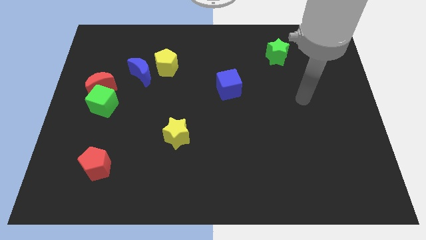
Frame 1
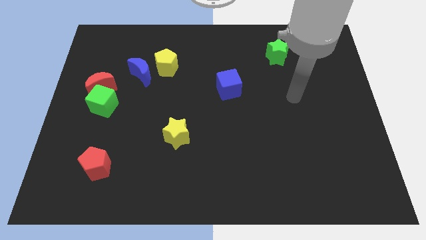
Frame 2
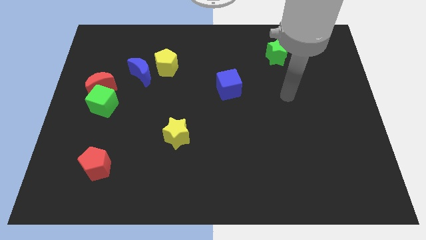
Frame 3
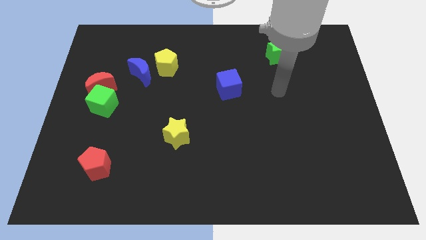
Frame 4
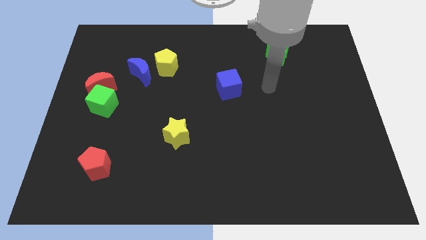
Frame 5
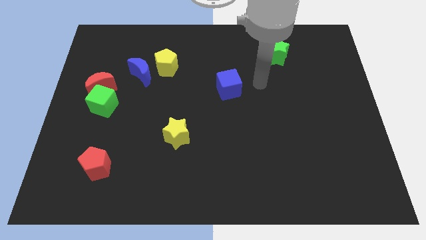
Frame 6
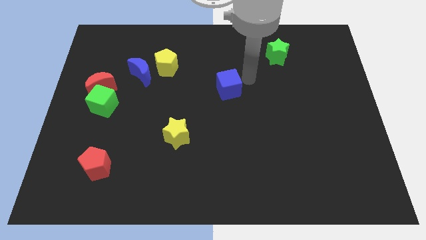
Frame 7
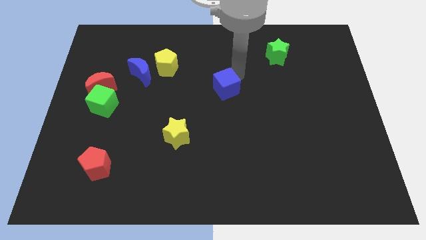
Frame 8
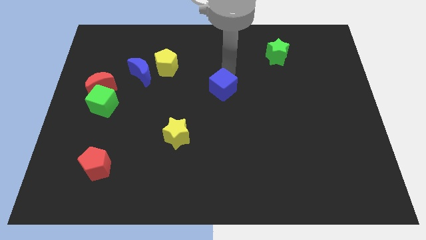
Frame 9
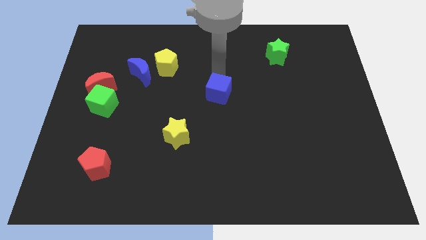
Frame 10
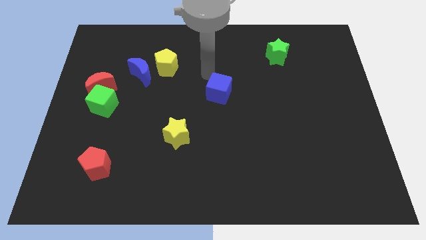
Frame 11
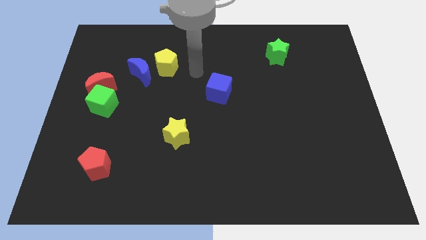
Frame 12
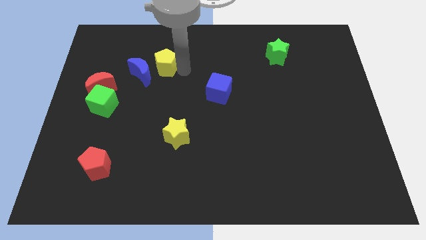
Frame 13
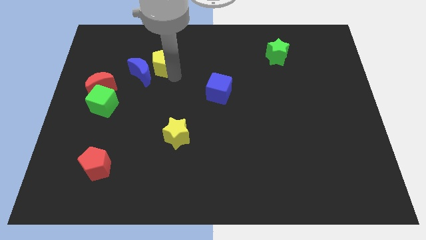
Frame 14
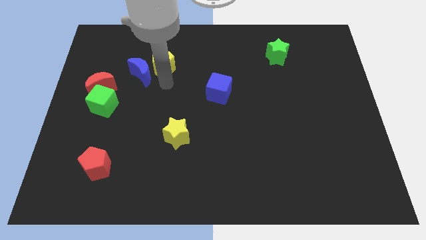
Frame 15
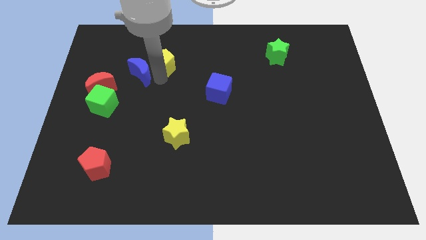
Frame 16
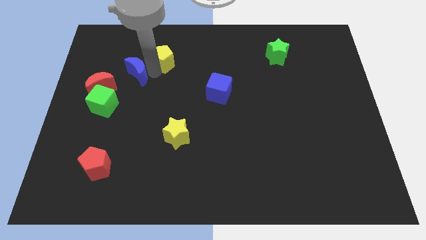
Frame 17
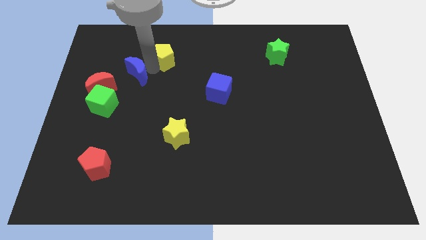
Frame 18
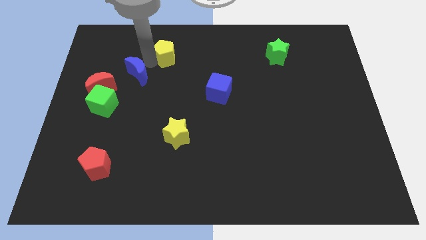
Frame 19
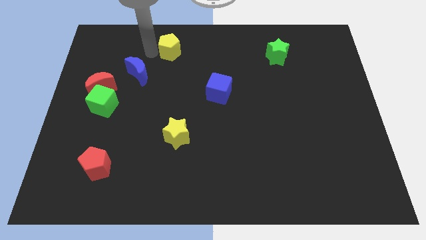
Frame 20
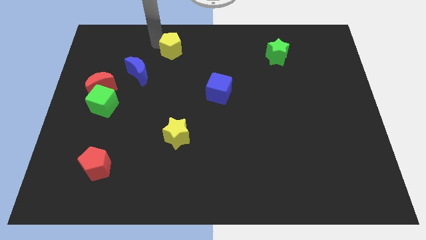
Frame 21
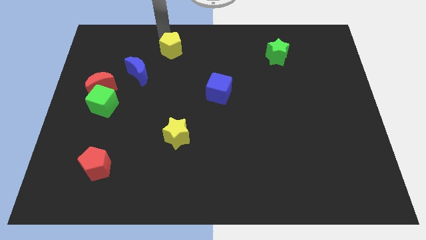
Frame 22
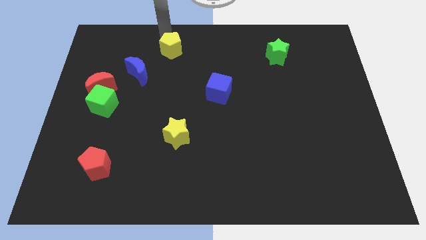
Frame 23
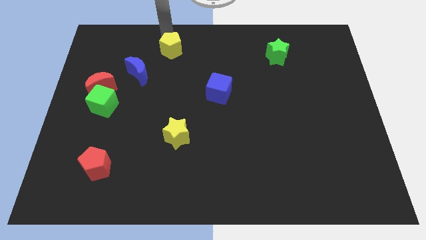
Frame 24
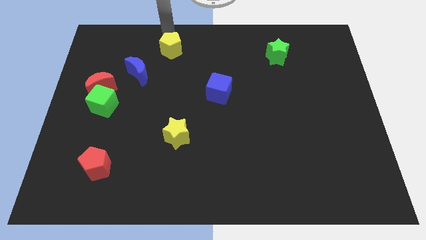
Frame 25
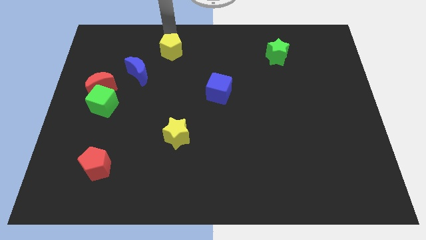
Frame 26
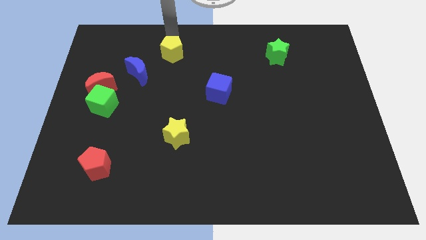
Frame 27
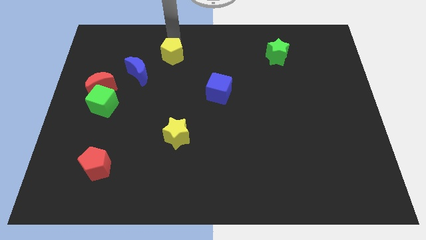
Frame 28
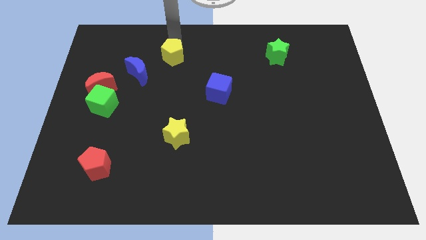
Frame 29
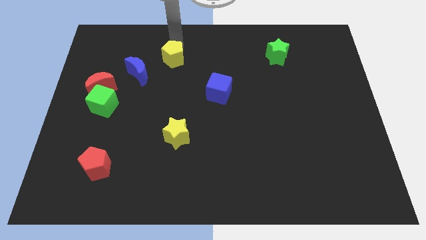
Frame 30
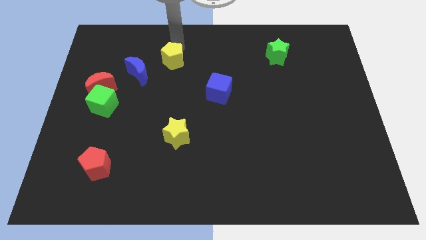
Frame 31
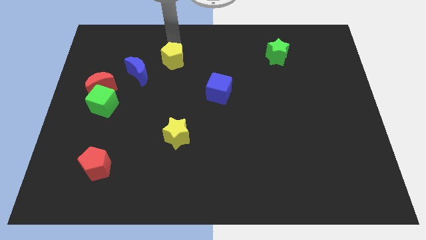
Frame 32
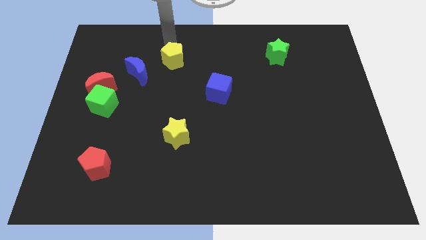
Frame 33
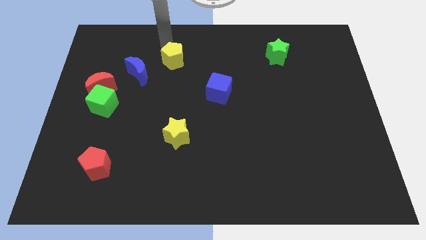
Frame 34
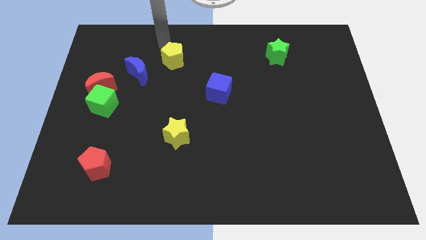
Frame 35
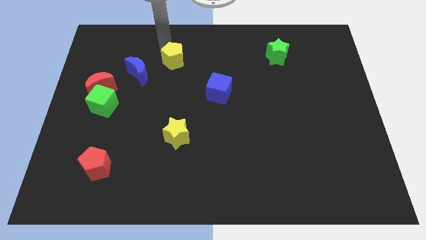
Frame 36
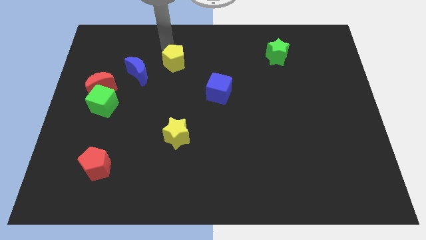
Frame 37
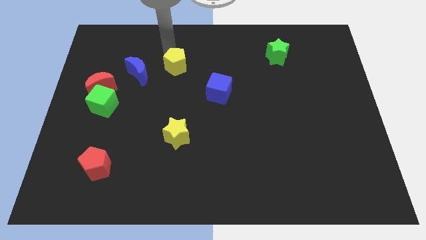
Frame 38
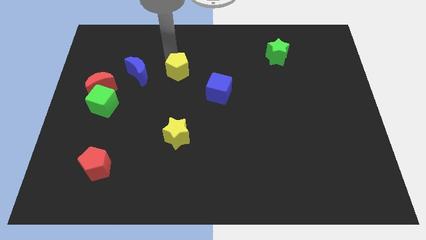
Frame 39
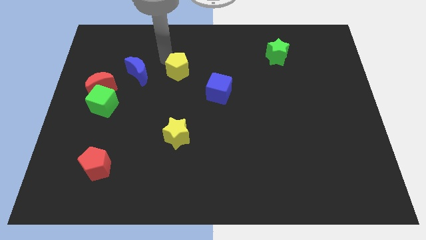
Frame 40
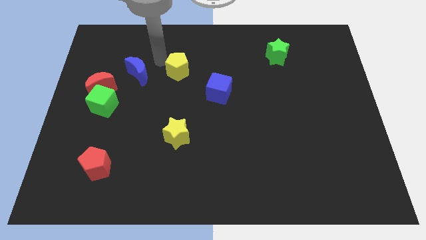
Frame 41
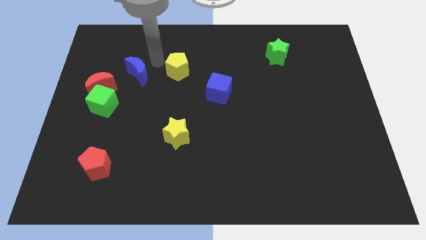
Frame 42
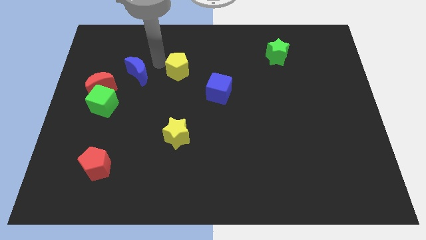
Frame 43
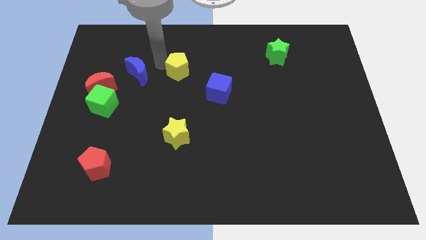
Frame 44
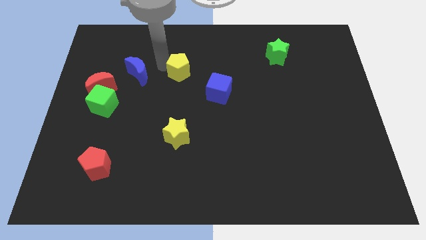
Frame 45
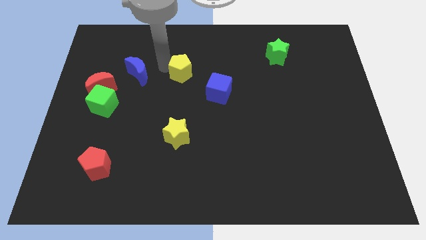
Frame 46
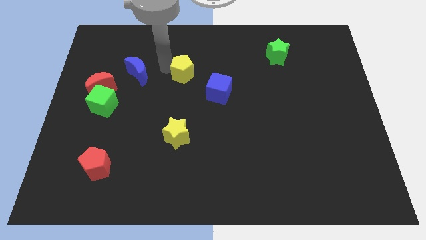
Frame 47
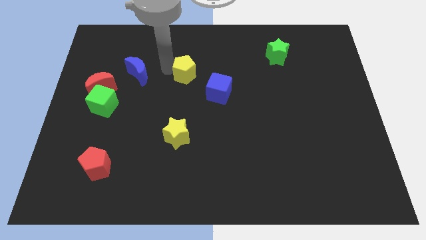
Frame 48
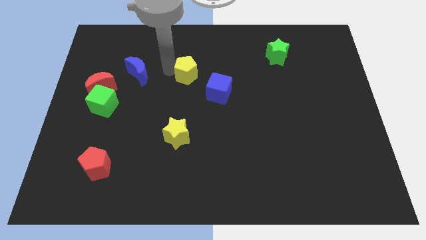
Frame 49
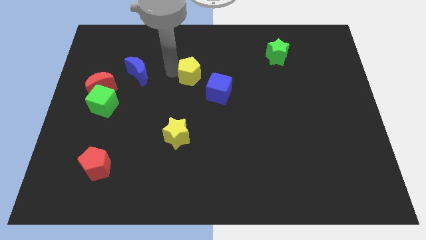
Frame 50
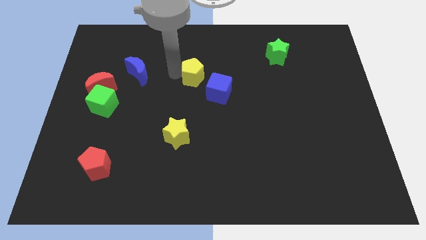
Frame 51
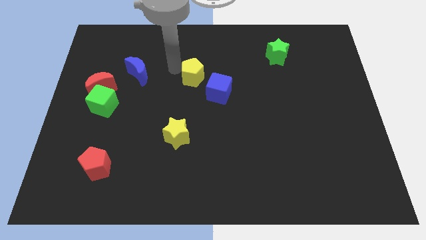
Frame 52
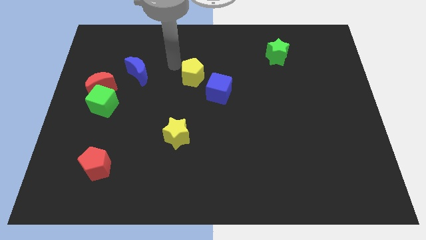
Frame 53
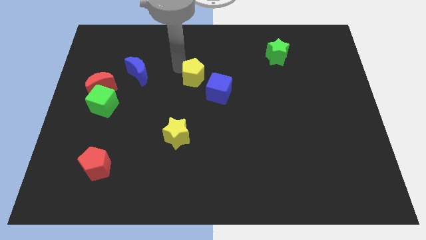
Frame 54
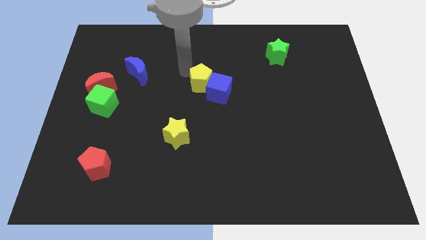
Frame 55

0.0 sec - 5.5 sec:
move the yellow pentagon close to the blue cube

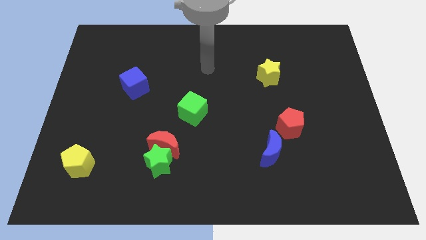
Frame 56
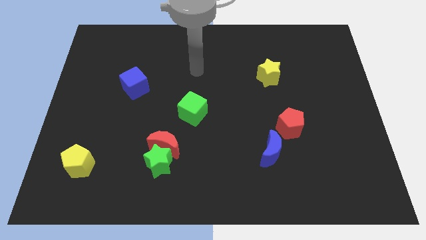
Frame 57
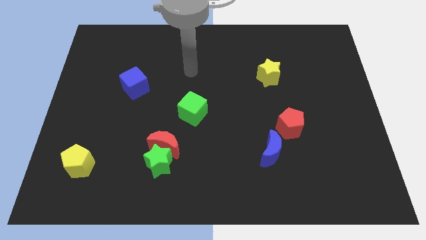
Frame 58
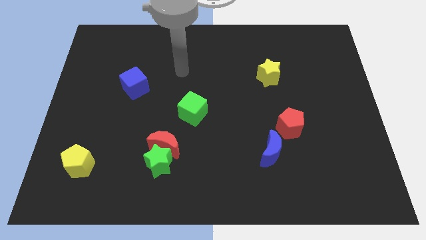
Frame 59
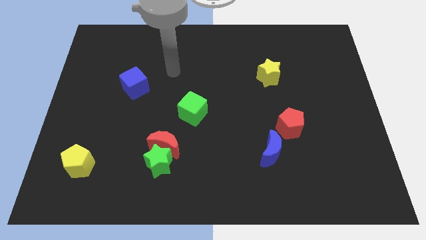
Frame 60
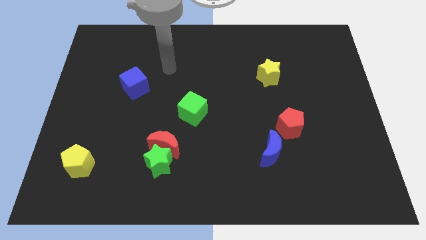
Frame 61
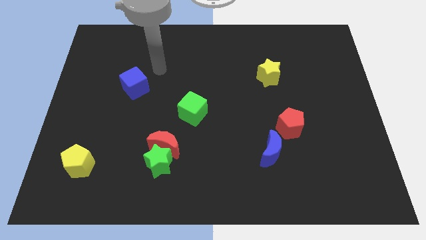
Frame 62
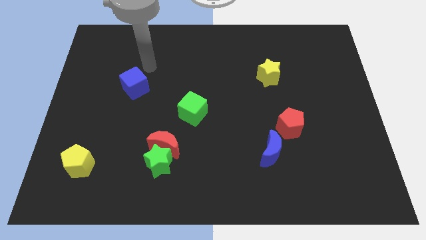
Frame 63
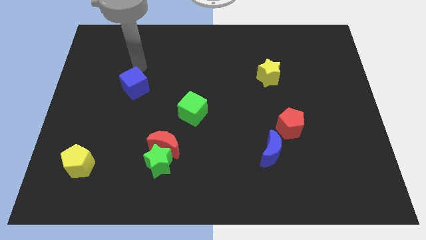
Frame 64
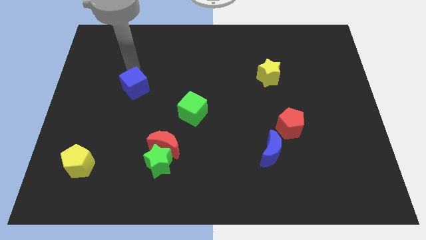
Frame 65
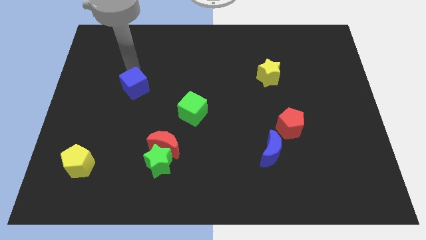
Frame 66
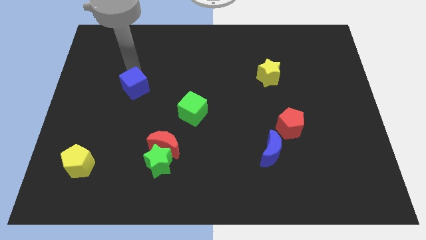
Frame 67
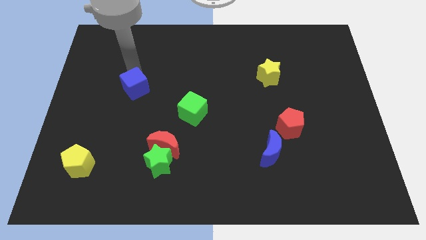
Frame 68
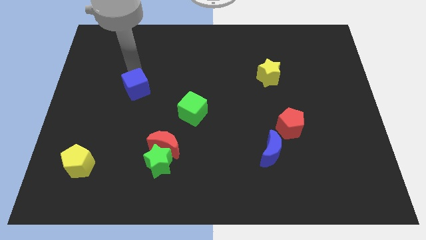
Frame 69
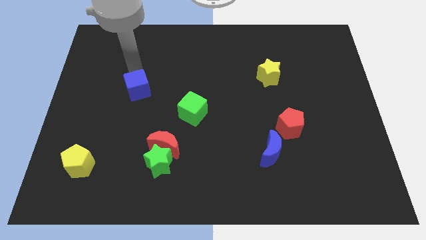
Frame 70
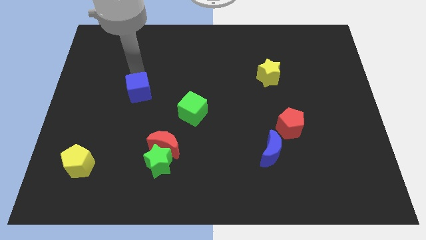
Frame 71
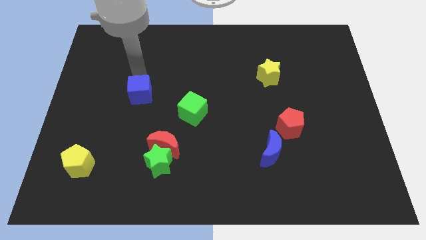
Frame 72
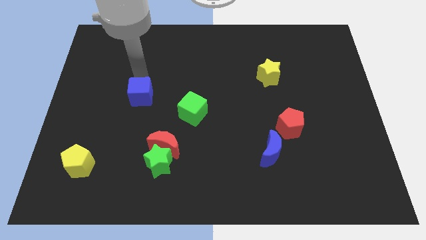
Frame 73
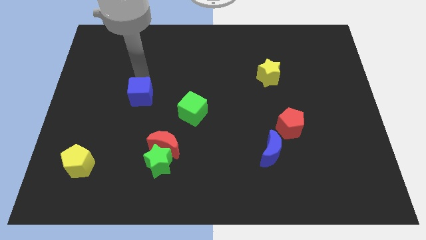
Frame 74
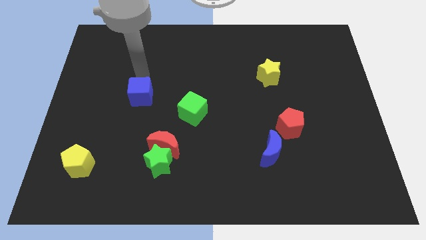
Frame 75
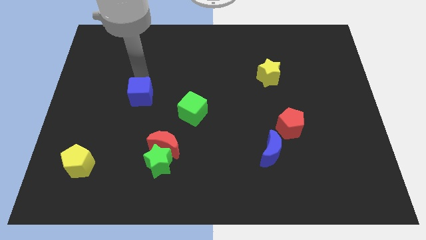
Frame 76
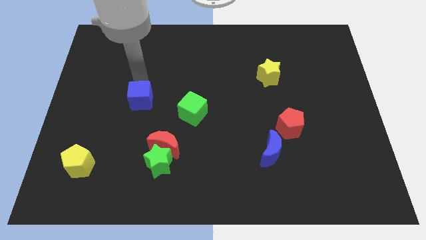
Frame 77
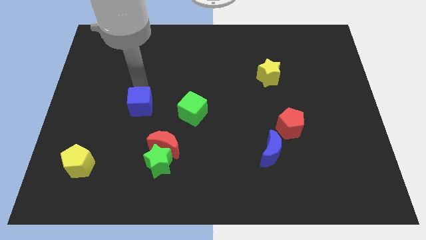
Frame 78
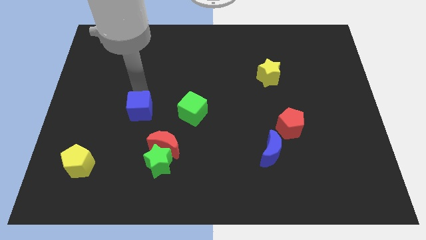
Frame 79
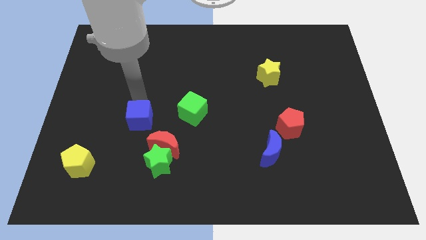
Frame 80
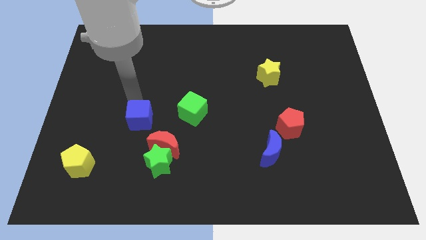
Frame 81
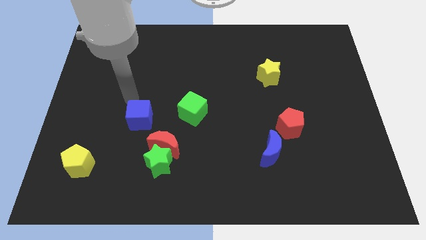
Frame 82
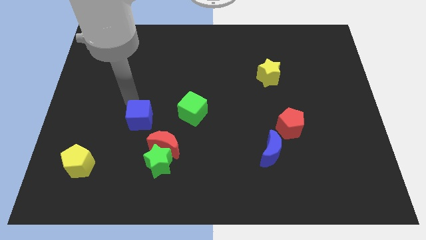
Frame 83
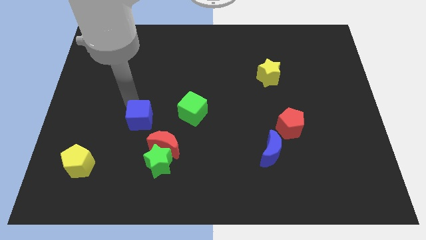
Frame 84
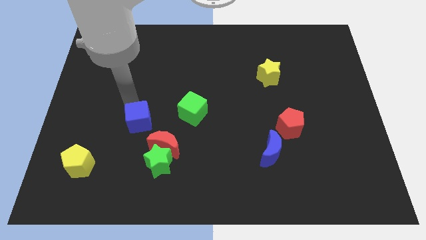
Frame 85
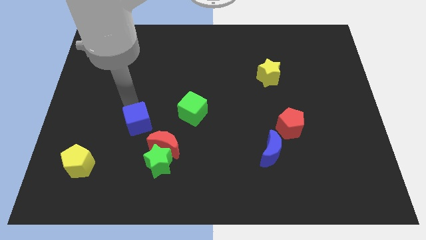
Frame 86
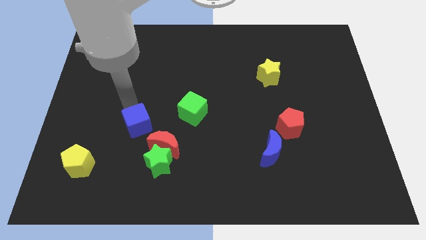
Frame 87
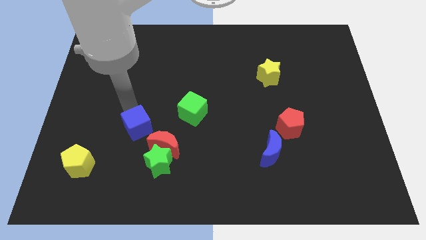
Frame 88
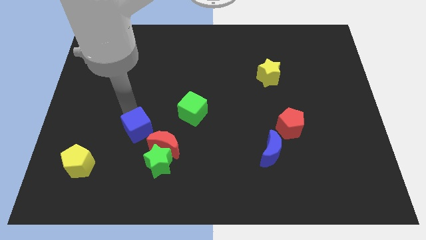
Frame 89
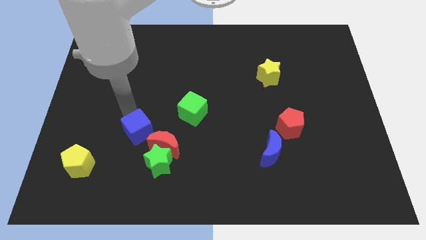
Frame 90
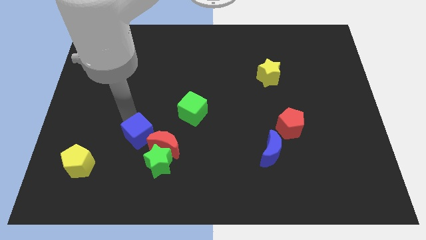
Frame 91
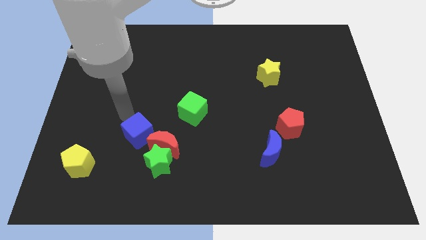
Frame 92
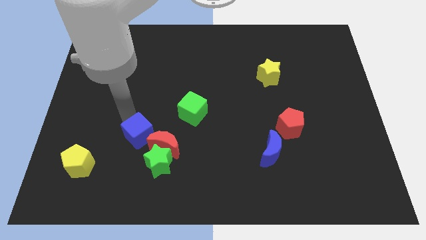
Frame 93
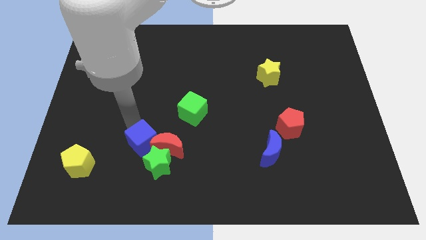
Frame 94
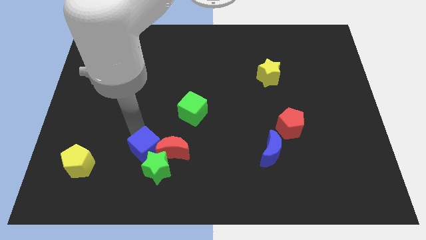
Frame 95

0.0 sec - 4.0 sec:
put the blue cube next to the green star
